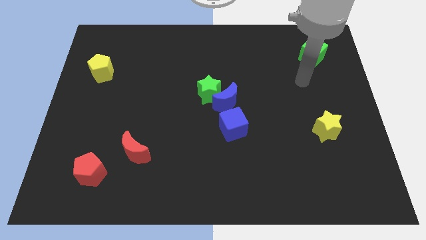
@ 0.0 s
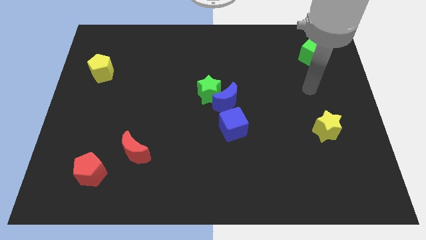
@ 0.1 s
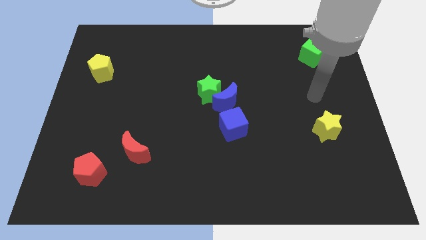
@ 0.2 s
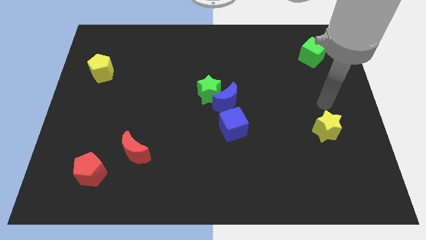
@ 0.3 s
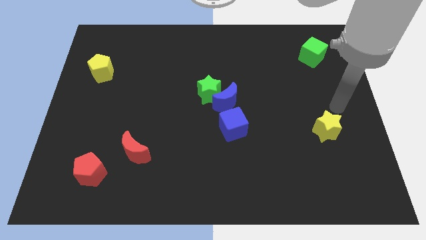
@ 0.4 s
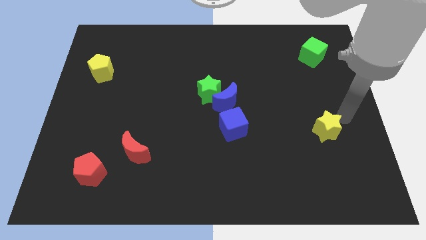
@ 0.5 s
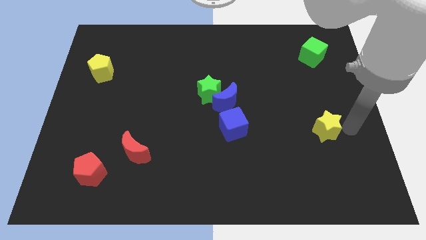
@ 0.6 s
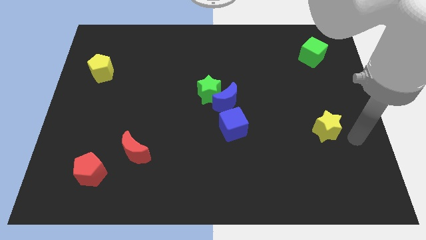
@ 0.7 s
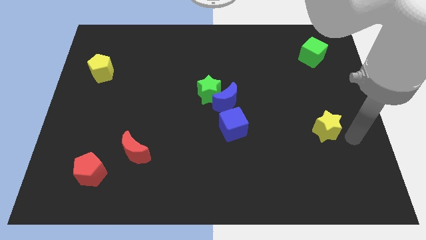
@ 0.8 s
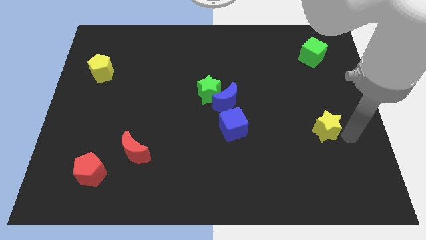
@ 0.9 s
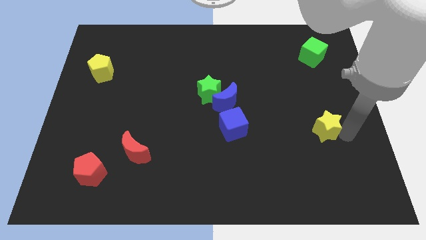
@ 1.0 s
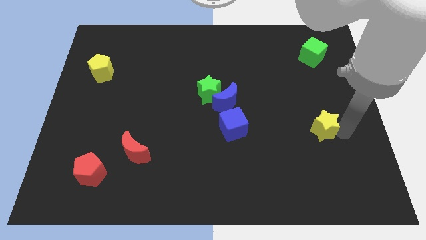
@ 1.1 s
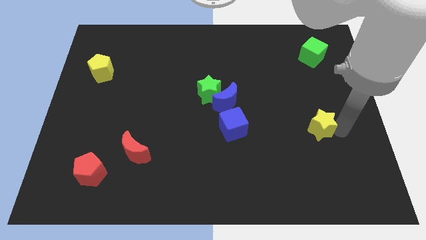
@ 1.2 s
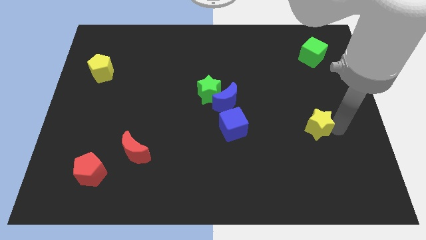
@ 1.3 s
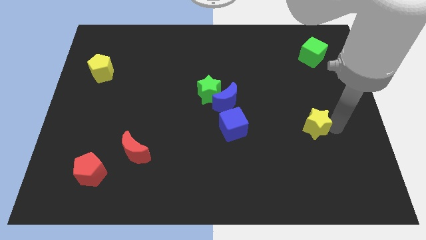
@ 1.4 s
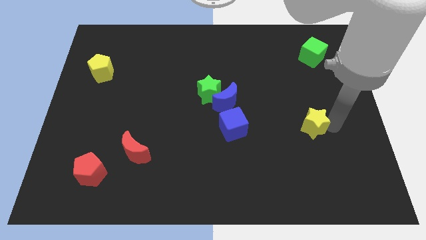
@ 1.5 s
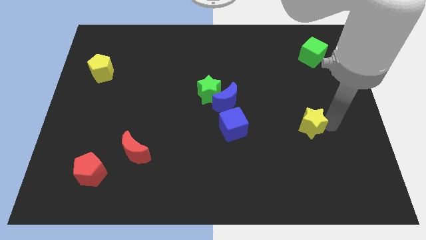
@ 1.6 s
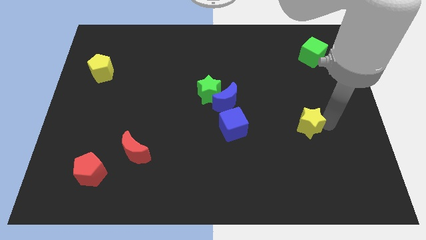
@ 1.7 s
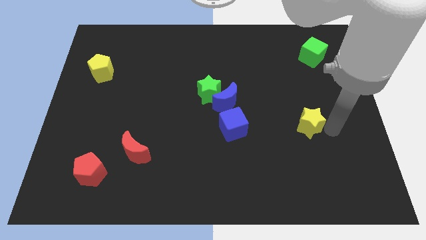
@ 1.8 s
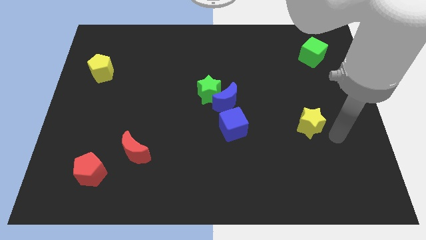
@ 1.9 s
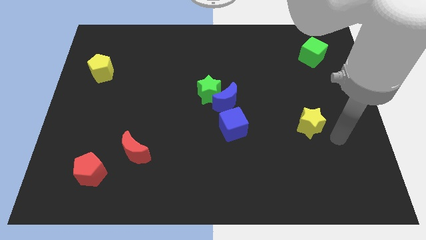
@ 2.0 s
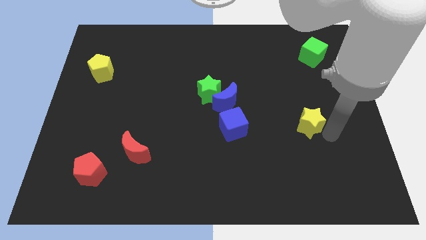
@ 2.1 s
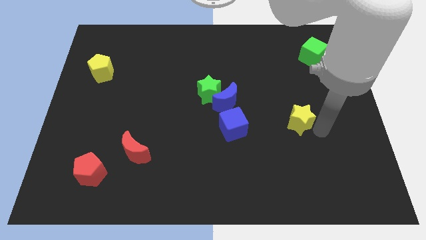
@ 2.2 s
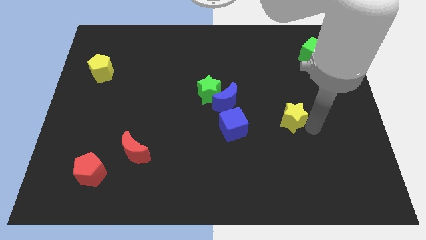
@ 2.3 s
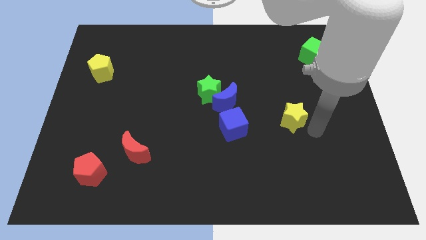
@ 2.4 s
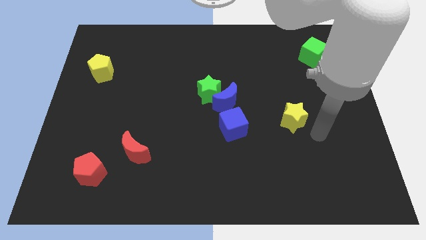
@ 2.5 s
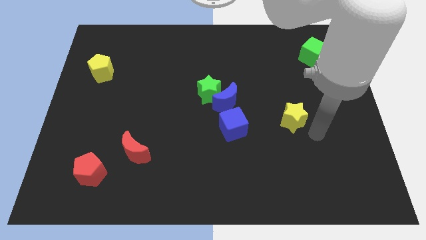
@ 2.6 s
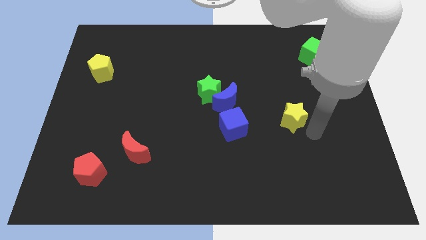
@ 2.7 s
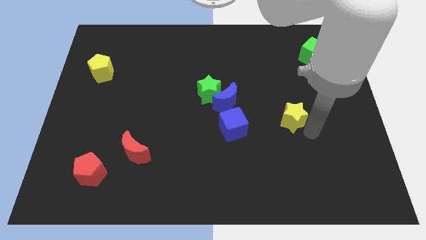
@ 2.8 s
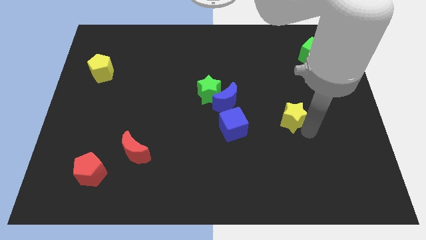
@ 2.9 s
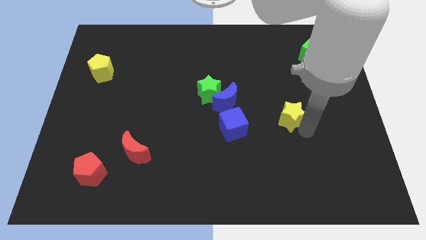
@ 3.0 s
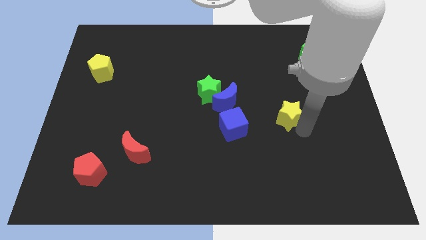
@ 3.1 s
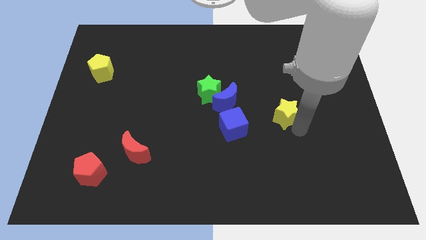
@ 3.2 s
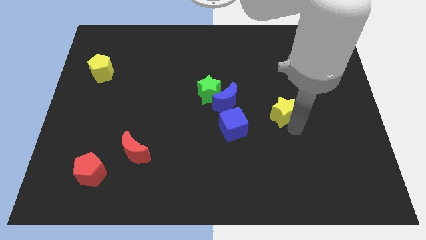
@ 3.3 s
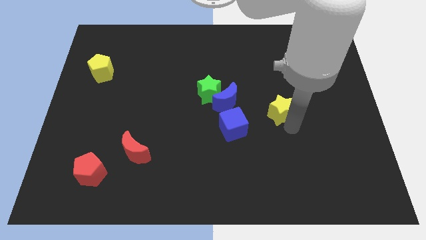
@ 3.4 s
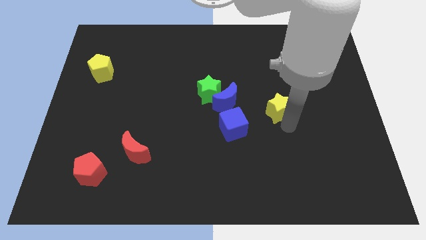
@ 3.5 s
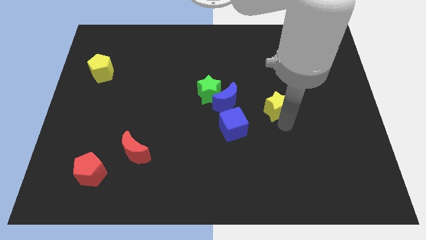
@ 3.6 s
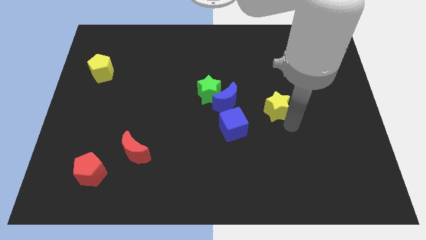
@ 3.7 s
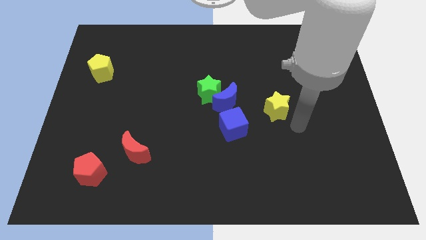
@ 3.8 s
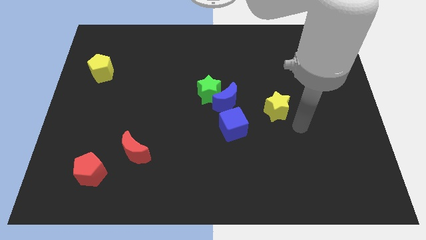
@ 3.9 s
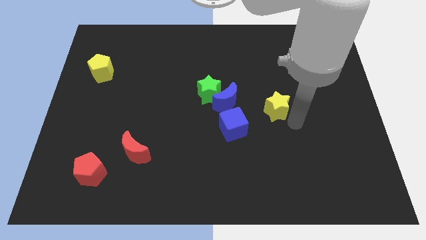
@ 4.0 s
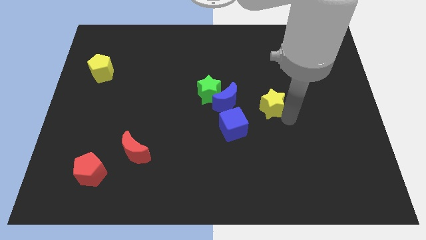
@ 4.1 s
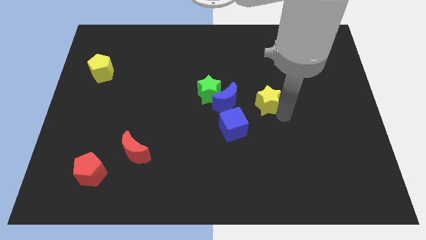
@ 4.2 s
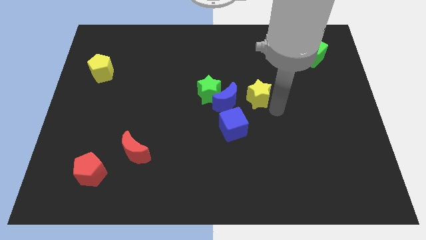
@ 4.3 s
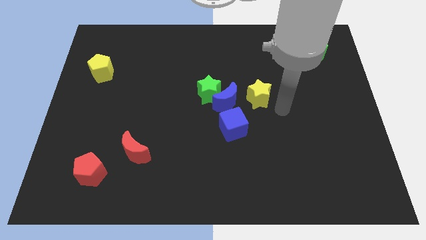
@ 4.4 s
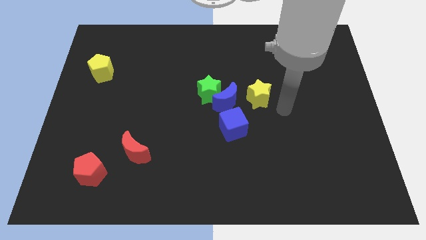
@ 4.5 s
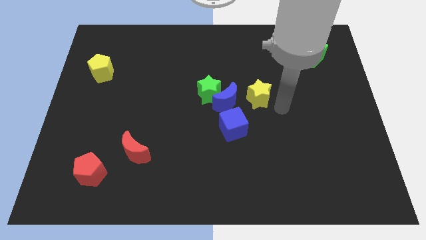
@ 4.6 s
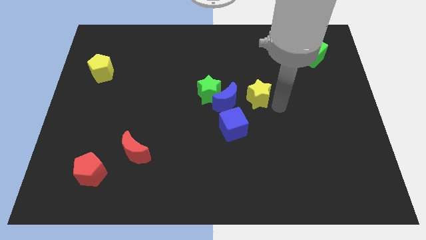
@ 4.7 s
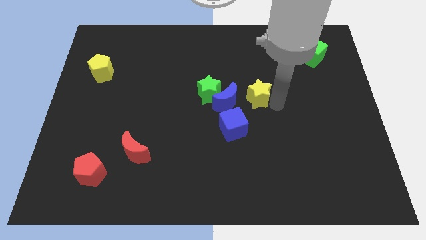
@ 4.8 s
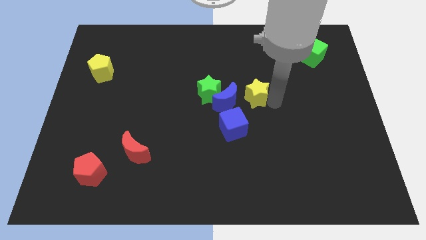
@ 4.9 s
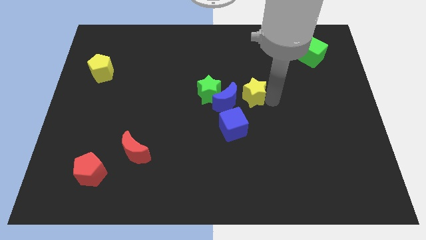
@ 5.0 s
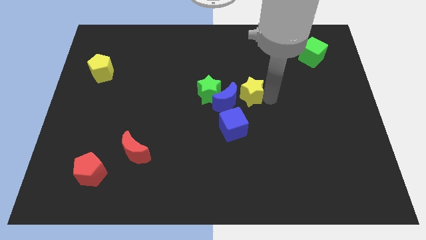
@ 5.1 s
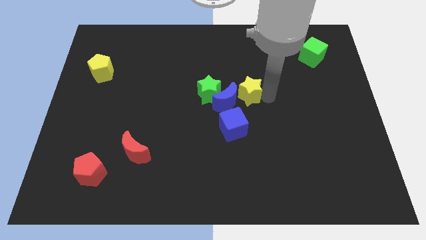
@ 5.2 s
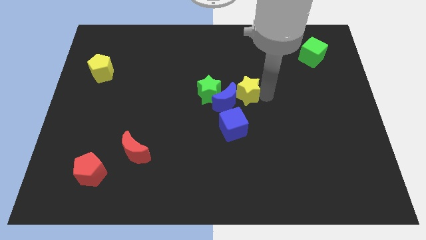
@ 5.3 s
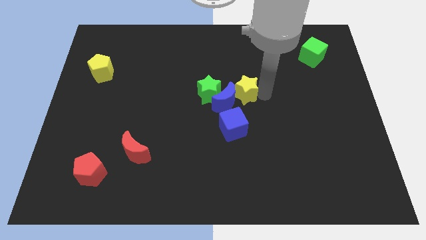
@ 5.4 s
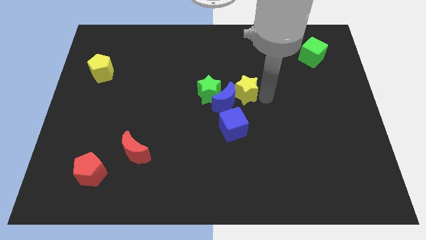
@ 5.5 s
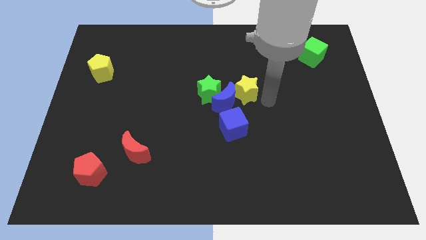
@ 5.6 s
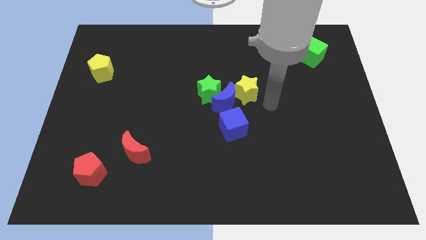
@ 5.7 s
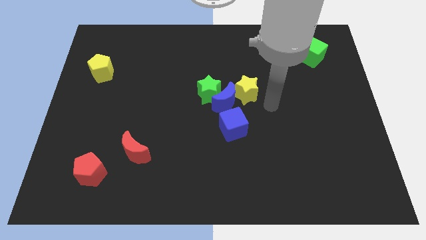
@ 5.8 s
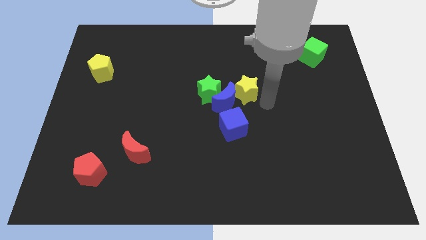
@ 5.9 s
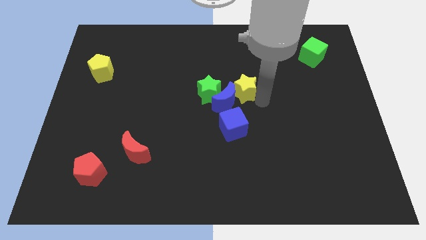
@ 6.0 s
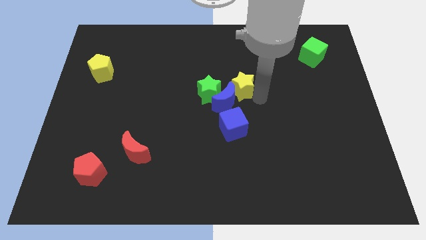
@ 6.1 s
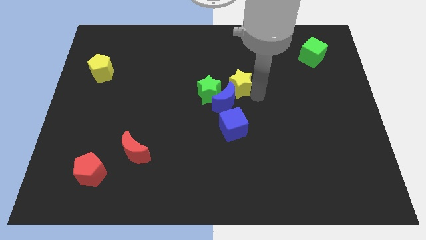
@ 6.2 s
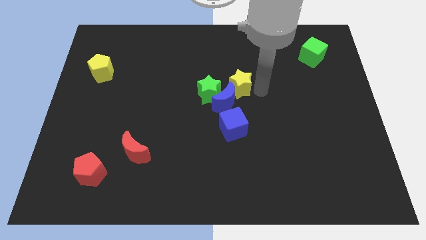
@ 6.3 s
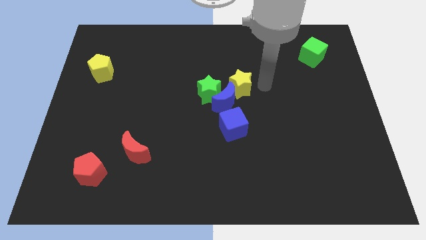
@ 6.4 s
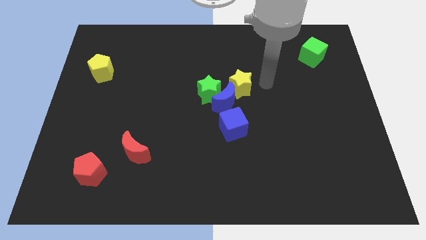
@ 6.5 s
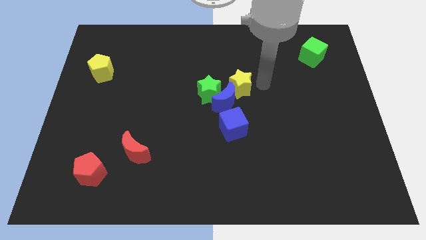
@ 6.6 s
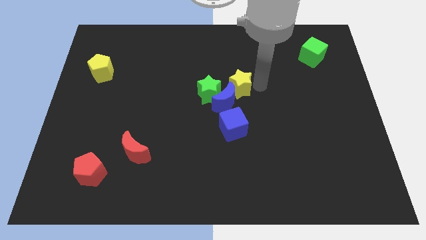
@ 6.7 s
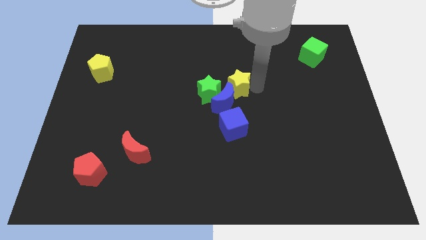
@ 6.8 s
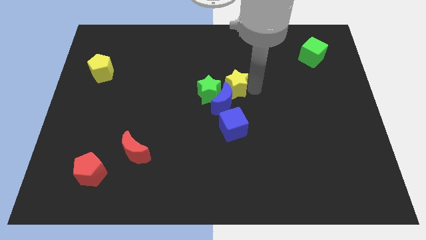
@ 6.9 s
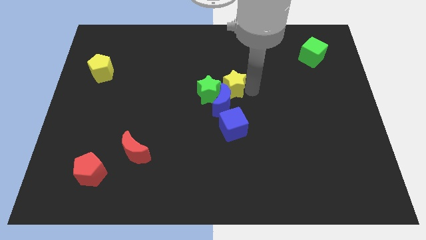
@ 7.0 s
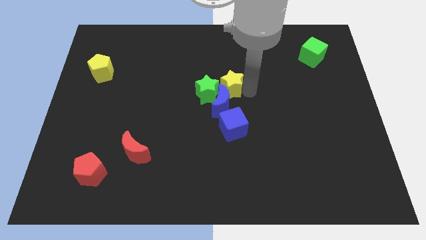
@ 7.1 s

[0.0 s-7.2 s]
move the yellow star next to the green star

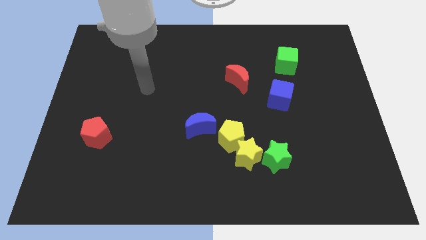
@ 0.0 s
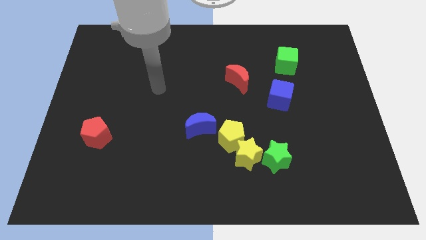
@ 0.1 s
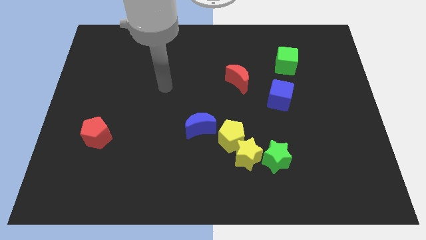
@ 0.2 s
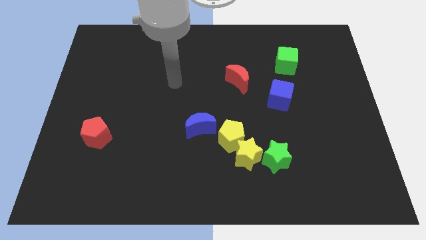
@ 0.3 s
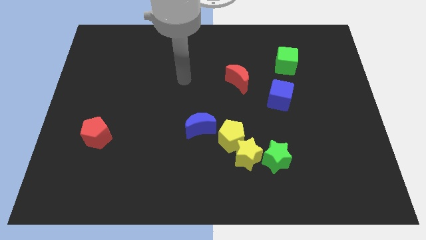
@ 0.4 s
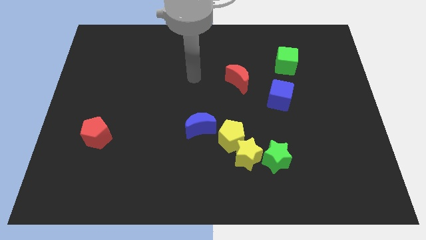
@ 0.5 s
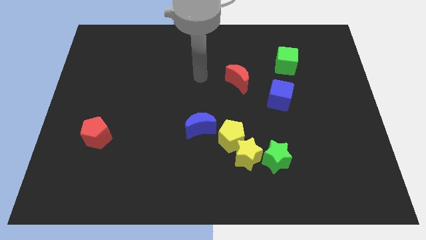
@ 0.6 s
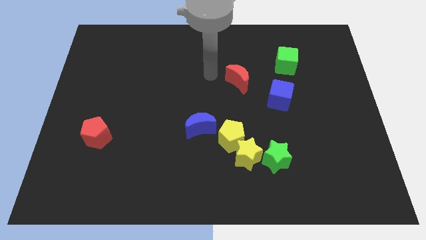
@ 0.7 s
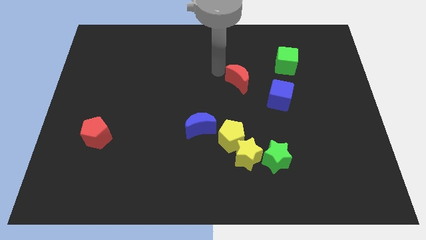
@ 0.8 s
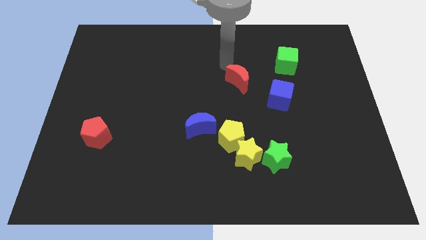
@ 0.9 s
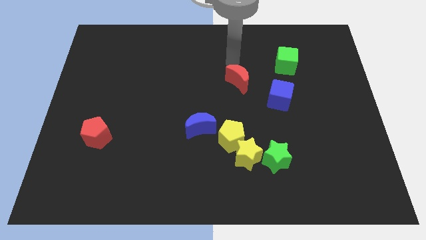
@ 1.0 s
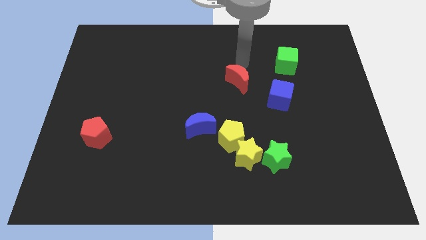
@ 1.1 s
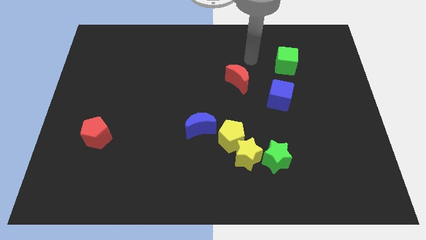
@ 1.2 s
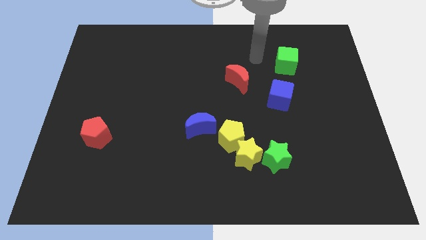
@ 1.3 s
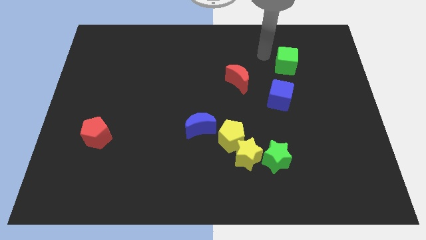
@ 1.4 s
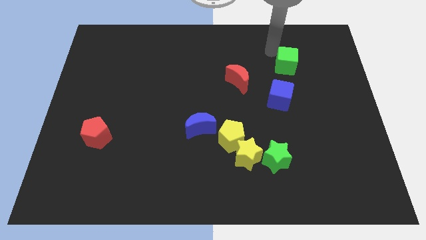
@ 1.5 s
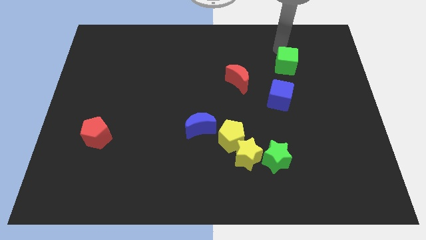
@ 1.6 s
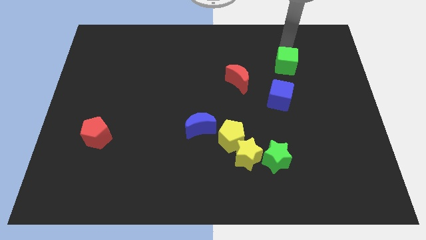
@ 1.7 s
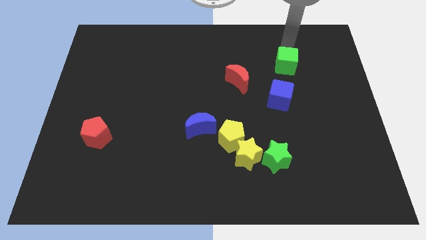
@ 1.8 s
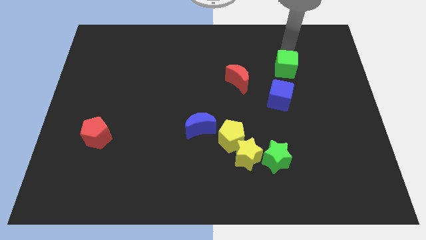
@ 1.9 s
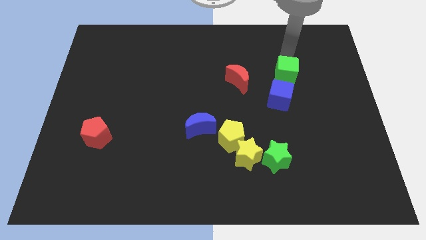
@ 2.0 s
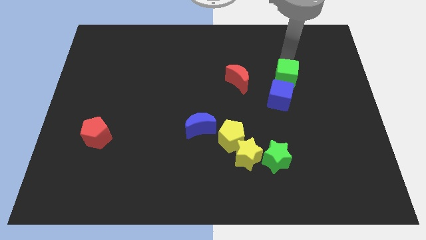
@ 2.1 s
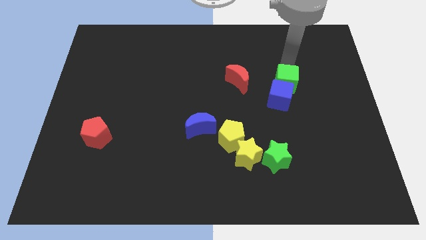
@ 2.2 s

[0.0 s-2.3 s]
push the green cube close to the blue cube
